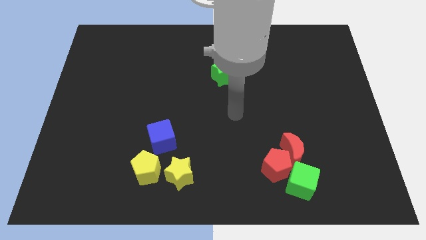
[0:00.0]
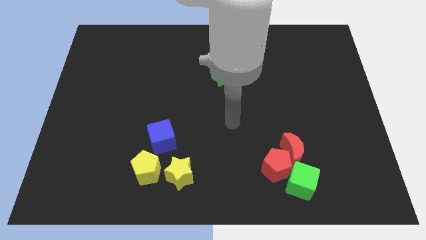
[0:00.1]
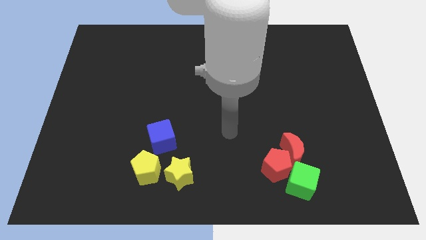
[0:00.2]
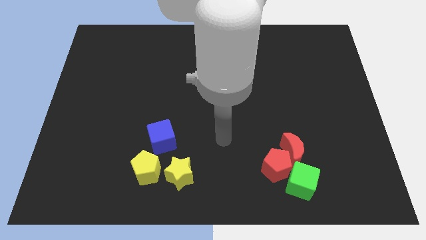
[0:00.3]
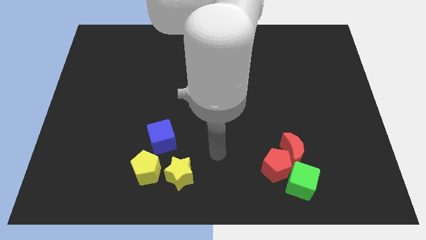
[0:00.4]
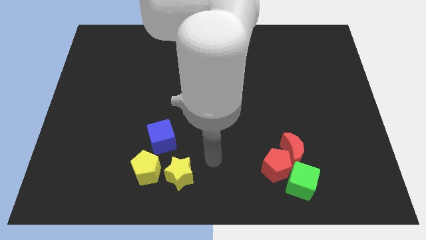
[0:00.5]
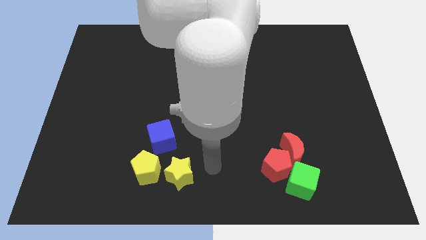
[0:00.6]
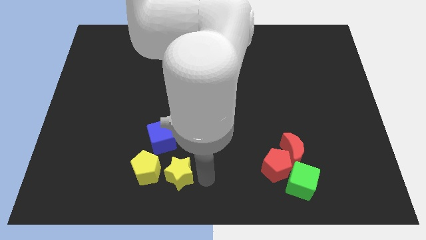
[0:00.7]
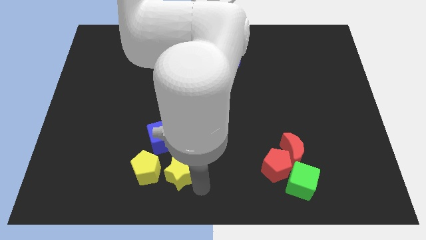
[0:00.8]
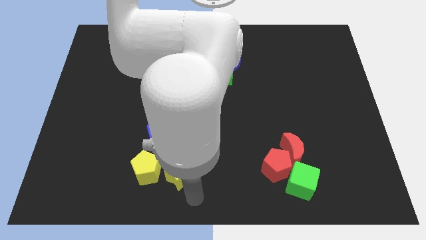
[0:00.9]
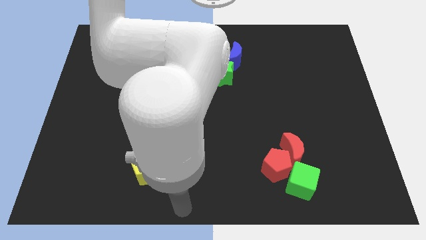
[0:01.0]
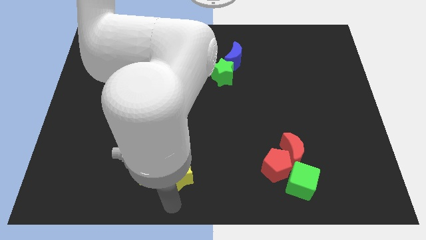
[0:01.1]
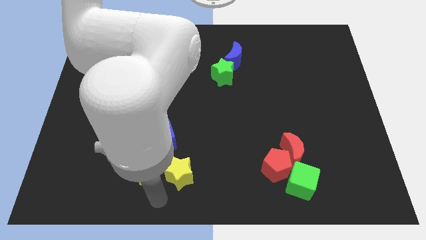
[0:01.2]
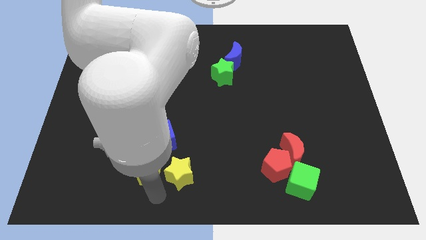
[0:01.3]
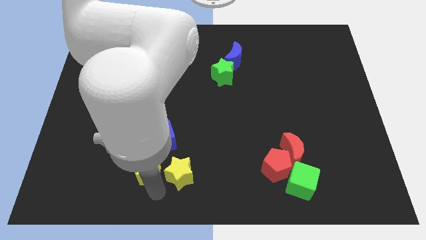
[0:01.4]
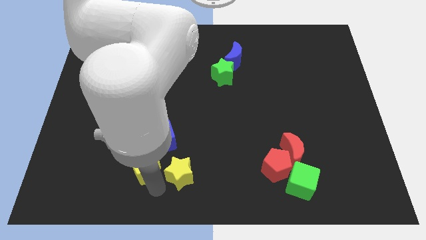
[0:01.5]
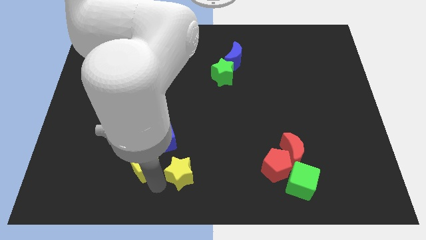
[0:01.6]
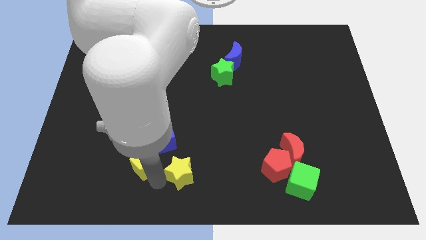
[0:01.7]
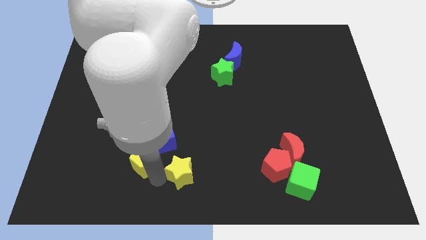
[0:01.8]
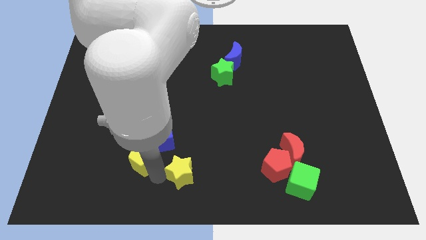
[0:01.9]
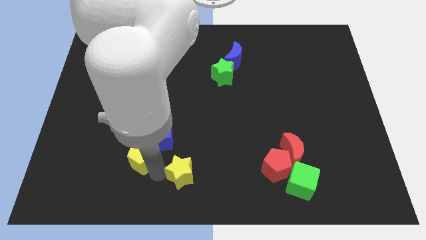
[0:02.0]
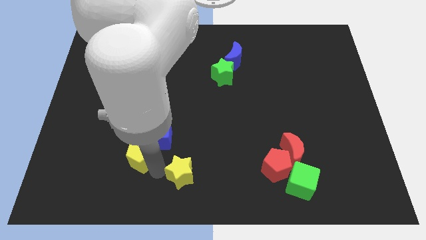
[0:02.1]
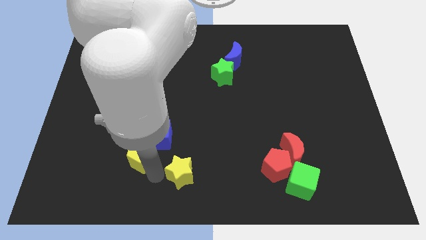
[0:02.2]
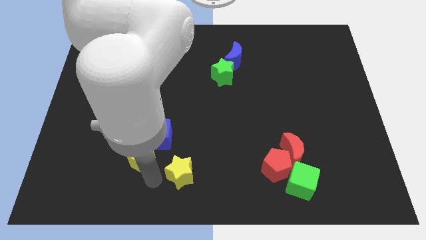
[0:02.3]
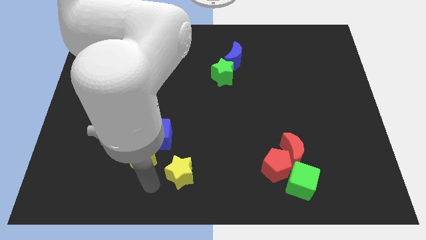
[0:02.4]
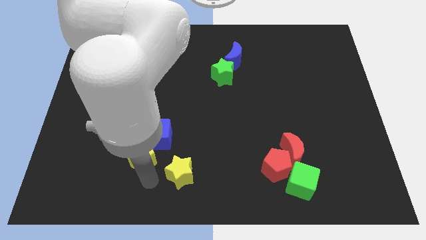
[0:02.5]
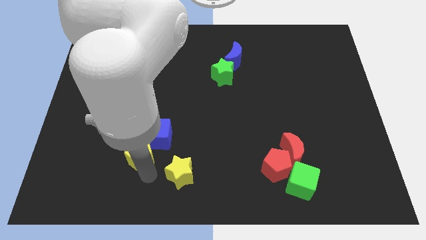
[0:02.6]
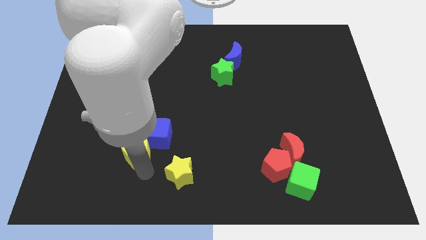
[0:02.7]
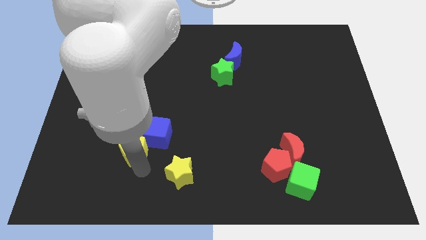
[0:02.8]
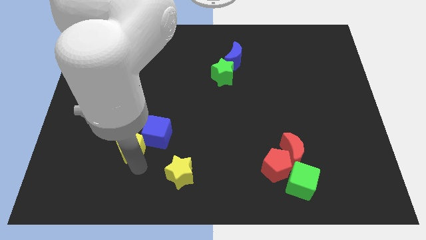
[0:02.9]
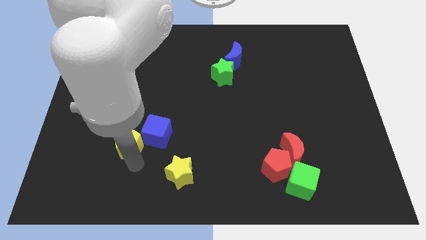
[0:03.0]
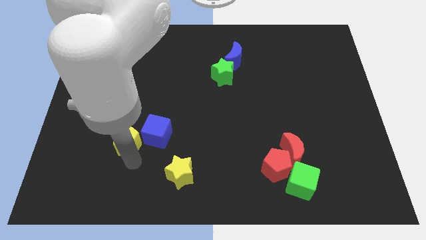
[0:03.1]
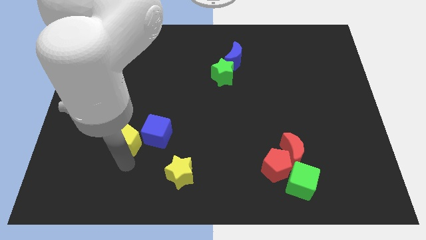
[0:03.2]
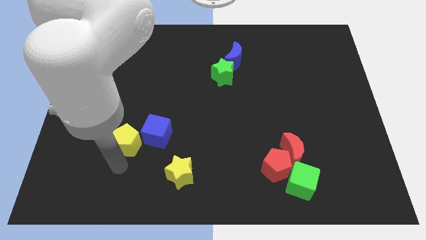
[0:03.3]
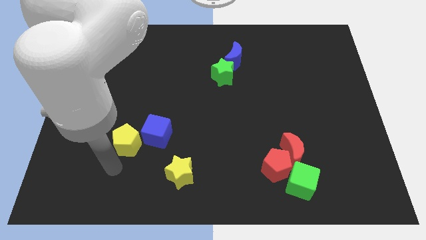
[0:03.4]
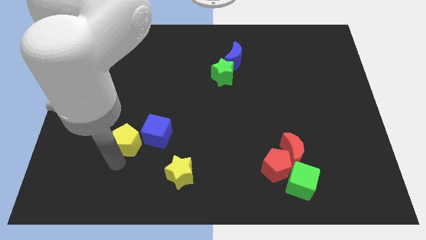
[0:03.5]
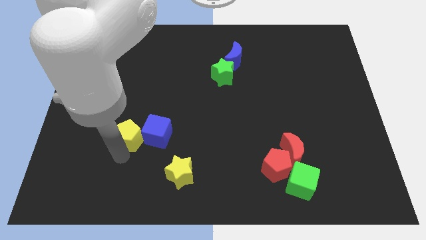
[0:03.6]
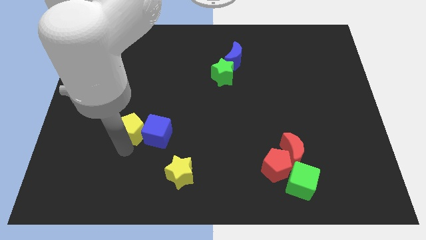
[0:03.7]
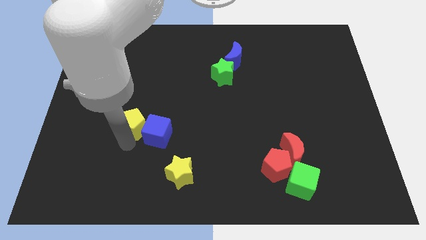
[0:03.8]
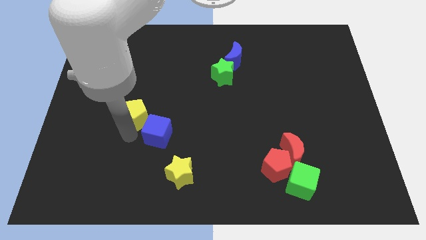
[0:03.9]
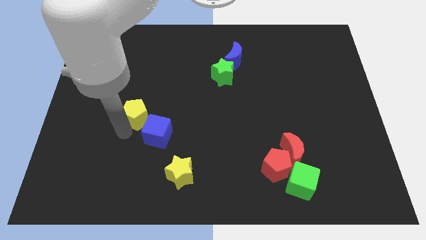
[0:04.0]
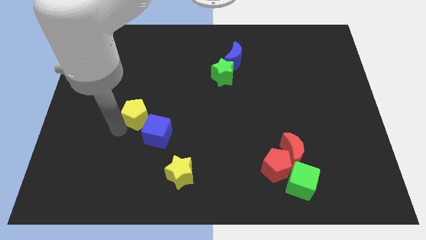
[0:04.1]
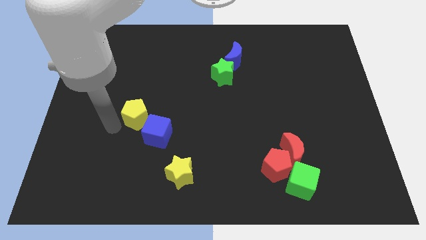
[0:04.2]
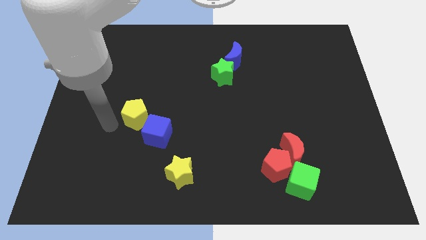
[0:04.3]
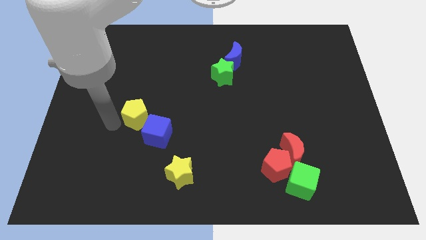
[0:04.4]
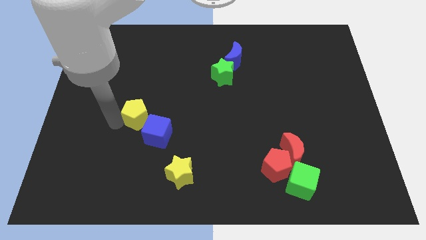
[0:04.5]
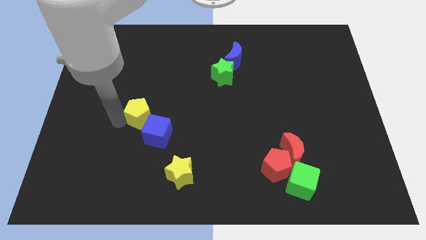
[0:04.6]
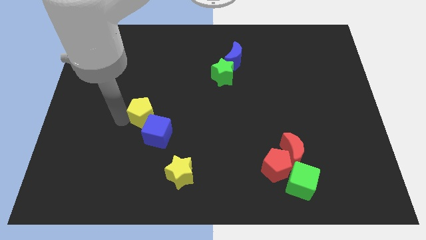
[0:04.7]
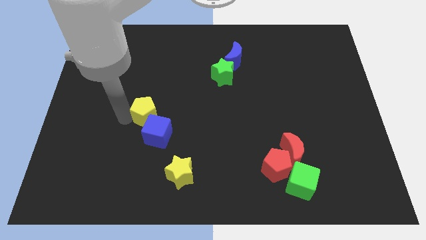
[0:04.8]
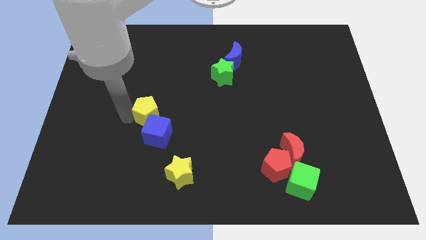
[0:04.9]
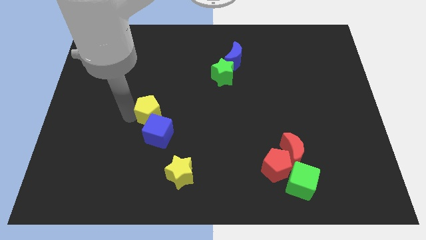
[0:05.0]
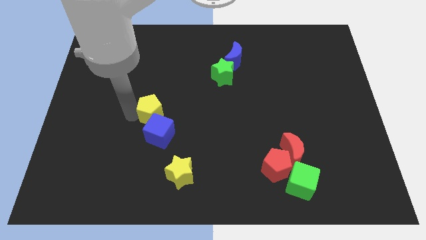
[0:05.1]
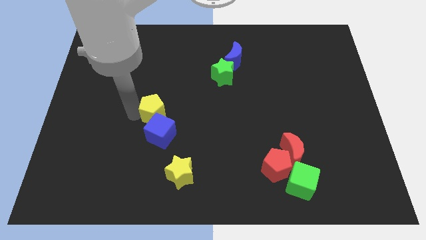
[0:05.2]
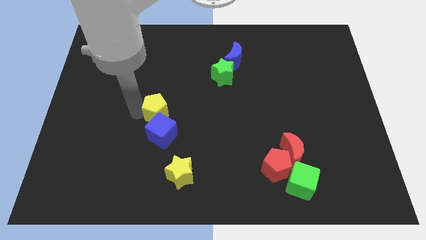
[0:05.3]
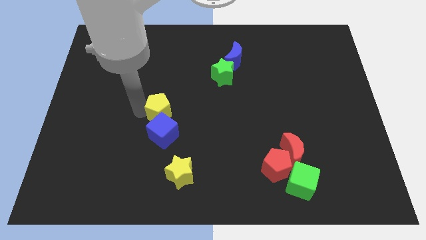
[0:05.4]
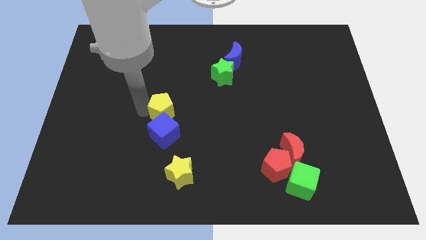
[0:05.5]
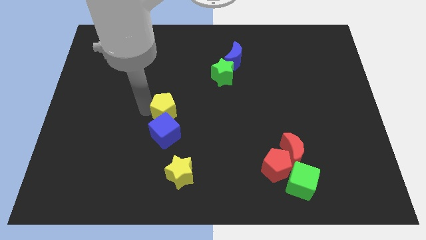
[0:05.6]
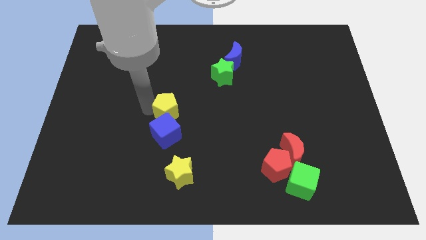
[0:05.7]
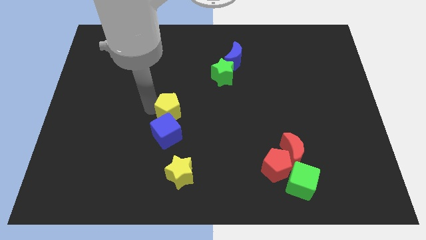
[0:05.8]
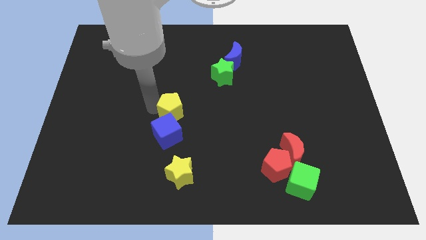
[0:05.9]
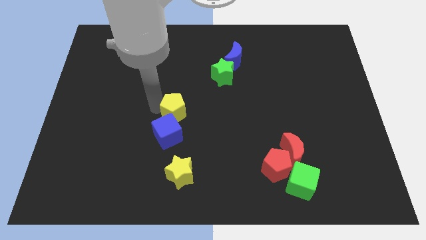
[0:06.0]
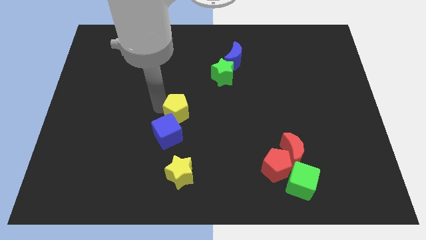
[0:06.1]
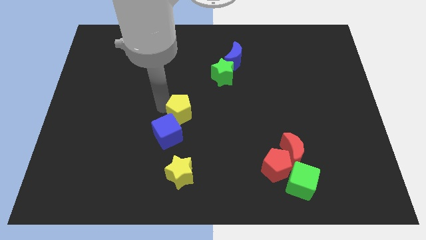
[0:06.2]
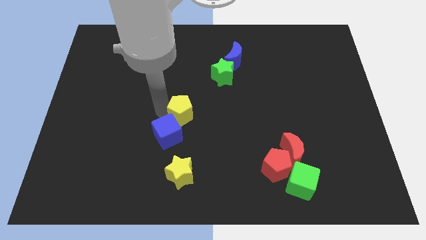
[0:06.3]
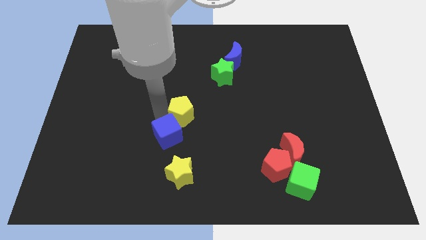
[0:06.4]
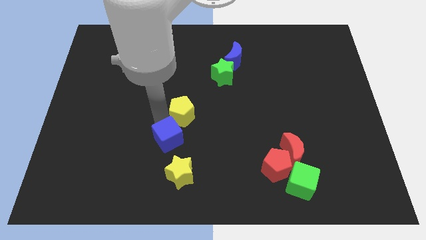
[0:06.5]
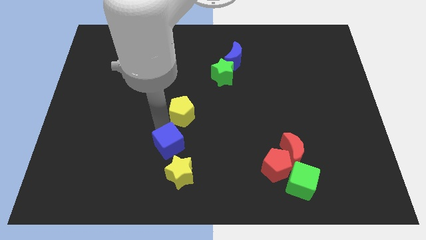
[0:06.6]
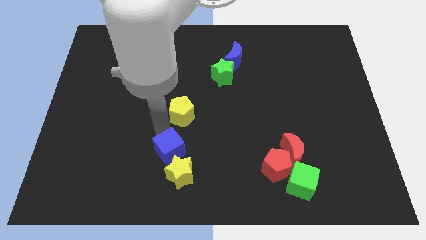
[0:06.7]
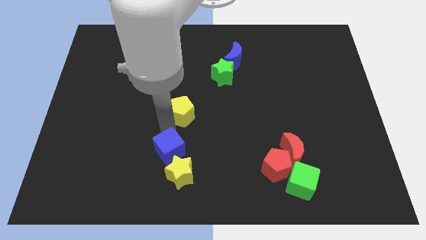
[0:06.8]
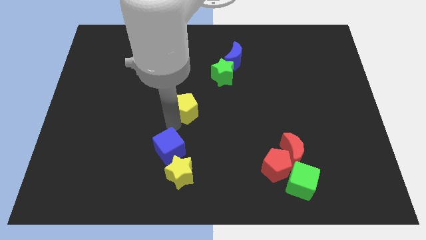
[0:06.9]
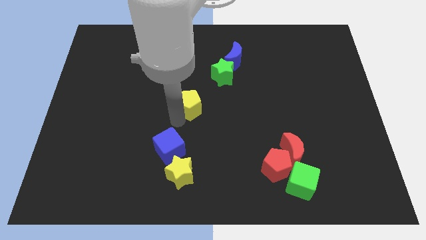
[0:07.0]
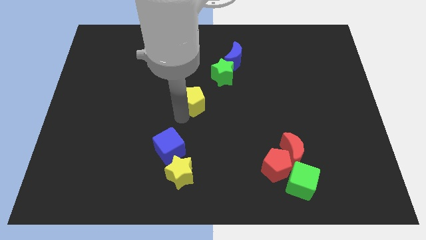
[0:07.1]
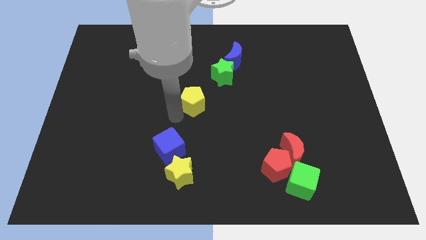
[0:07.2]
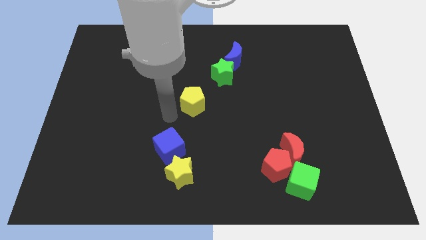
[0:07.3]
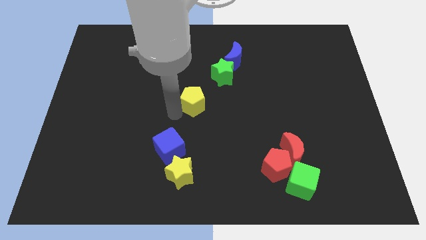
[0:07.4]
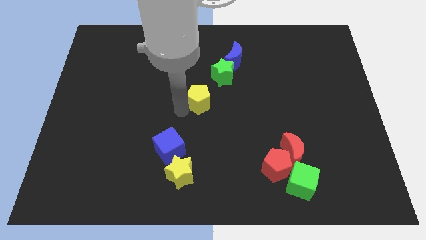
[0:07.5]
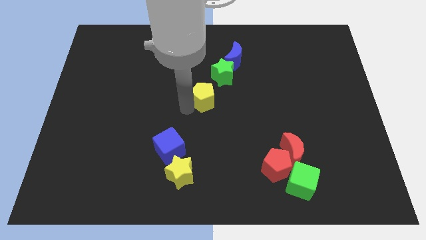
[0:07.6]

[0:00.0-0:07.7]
move the yellow pentagon upwards and then to the right

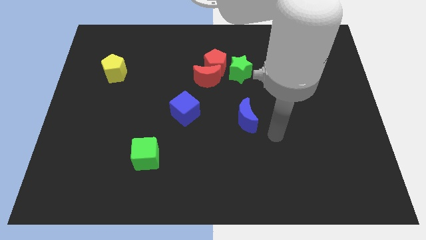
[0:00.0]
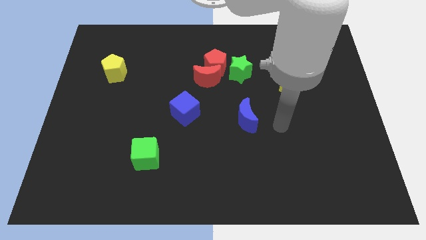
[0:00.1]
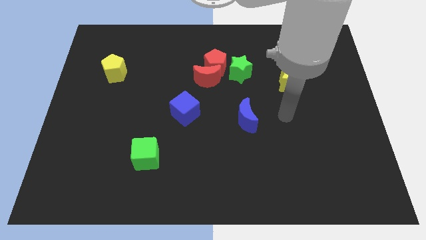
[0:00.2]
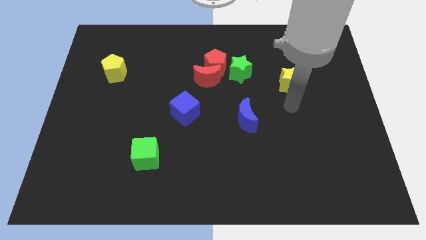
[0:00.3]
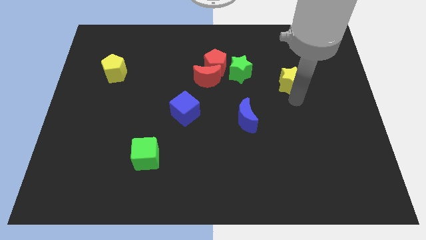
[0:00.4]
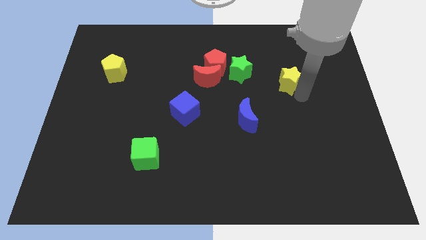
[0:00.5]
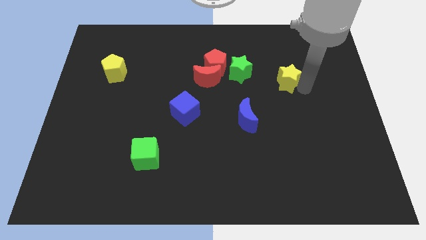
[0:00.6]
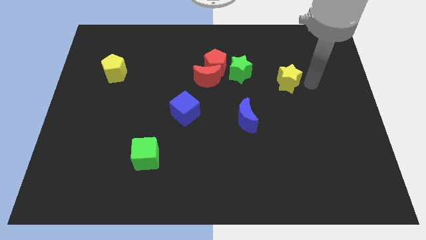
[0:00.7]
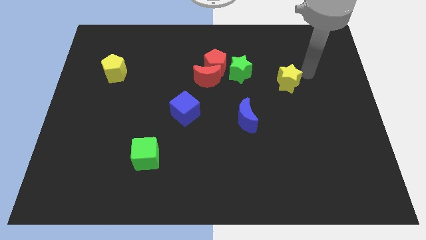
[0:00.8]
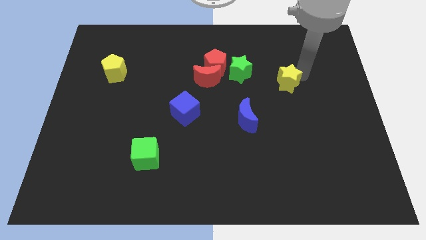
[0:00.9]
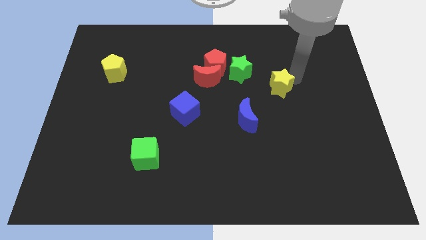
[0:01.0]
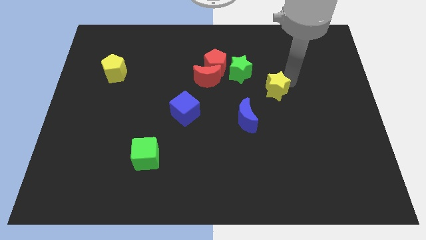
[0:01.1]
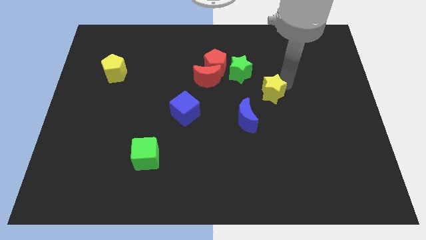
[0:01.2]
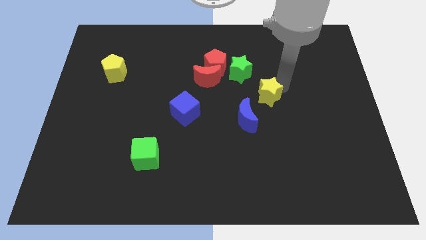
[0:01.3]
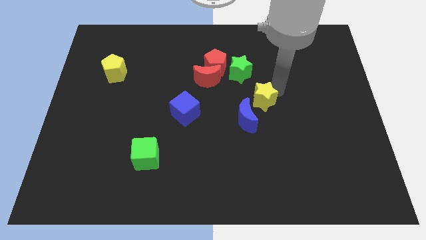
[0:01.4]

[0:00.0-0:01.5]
push the yellow star a little diagonally downwards and to the left
